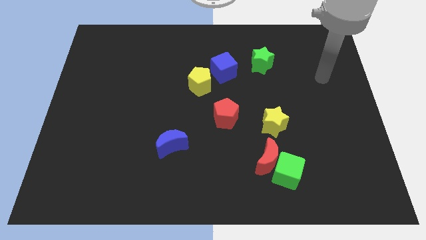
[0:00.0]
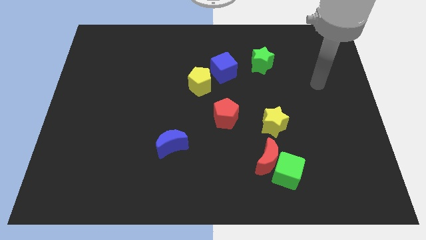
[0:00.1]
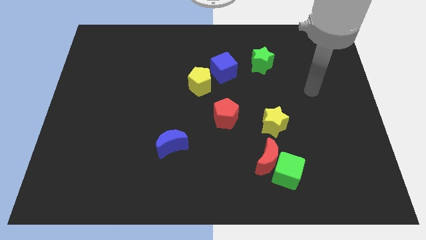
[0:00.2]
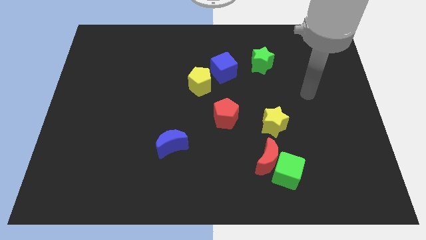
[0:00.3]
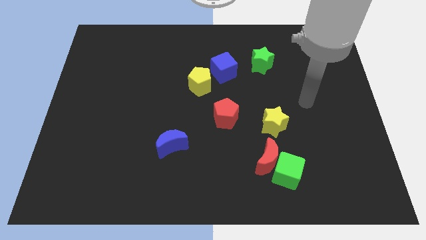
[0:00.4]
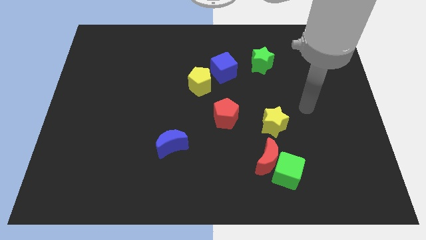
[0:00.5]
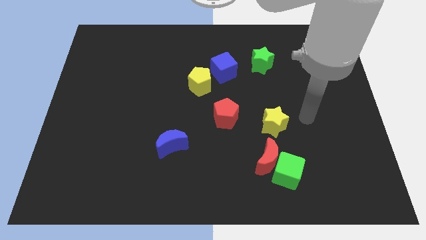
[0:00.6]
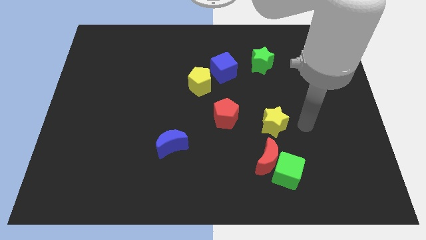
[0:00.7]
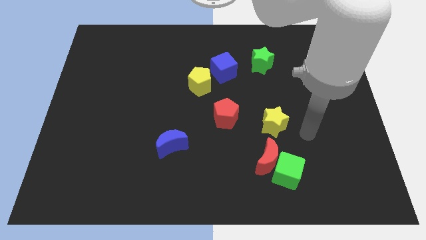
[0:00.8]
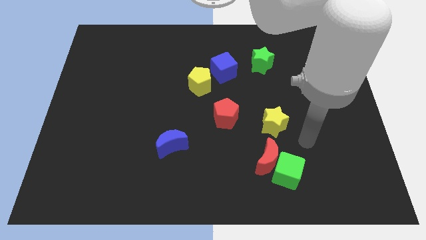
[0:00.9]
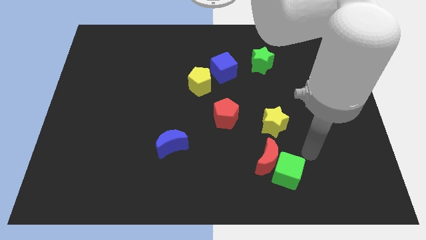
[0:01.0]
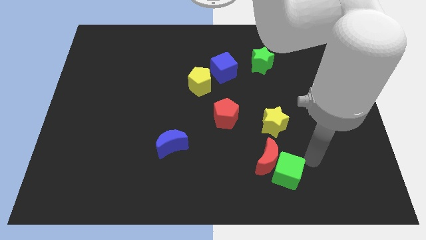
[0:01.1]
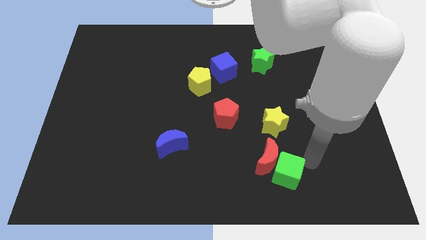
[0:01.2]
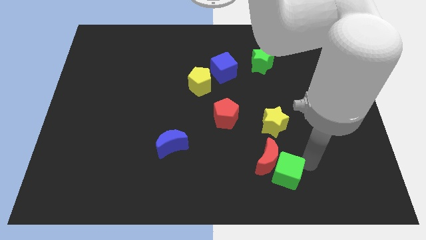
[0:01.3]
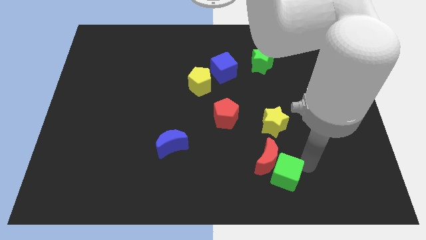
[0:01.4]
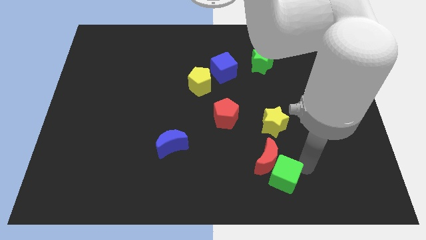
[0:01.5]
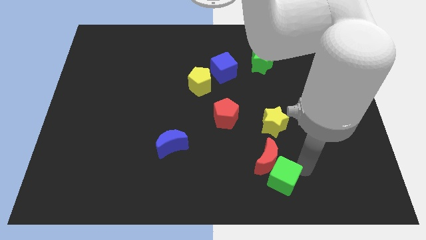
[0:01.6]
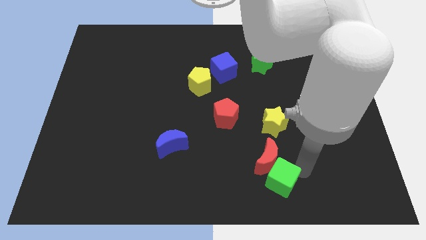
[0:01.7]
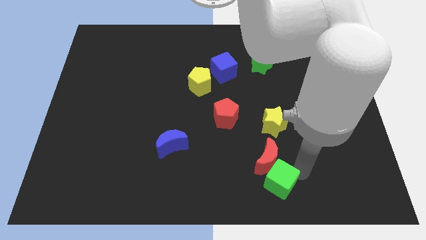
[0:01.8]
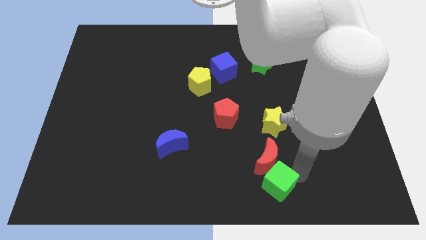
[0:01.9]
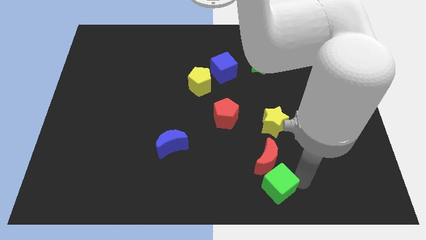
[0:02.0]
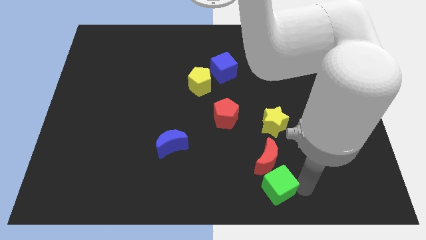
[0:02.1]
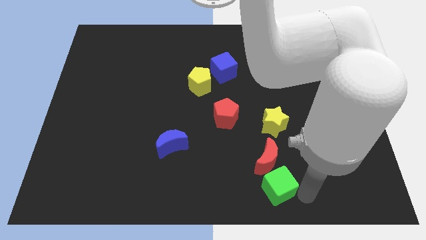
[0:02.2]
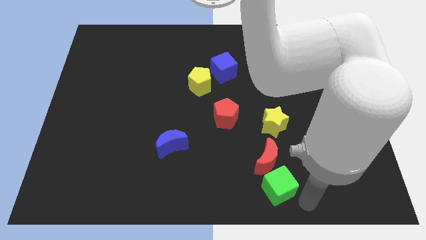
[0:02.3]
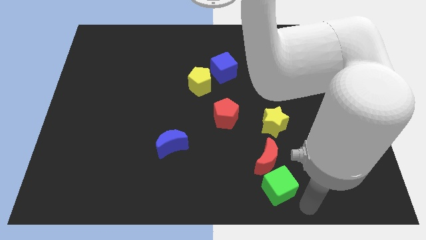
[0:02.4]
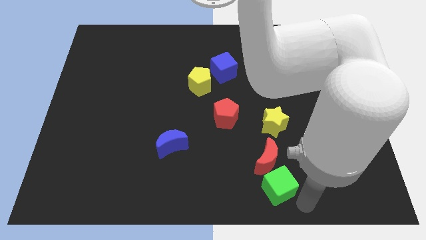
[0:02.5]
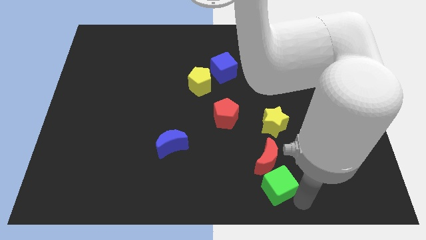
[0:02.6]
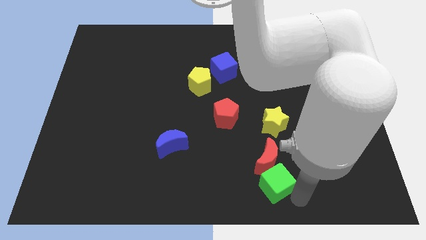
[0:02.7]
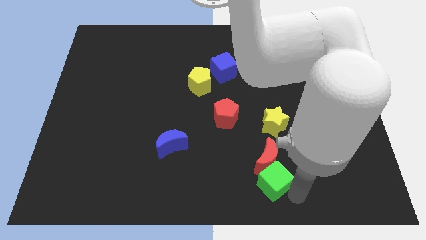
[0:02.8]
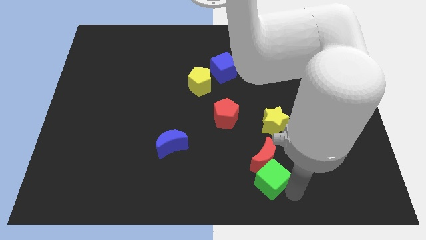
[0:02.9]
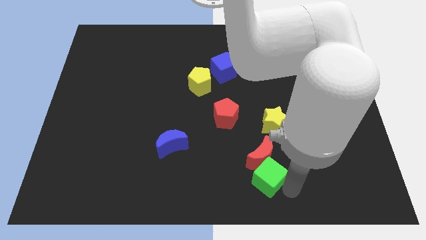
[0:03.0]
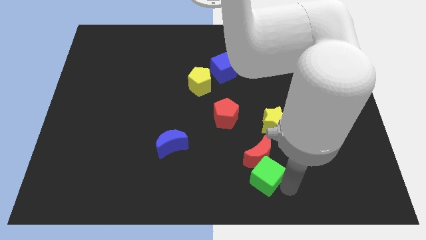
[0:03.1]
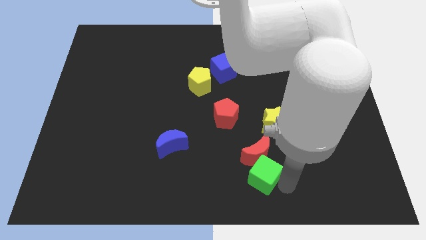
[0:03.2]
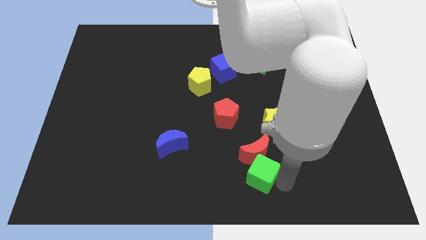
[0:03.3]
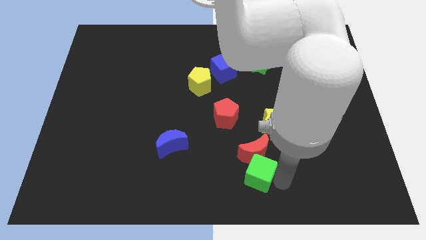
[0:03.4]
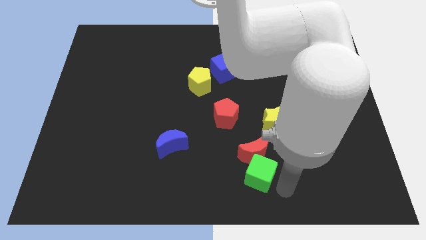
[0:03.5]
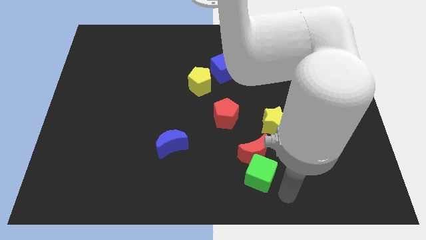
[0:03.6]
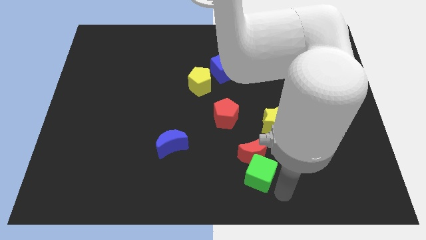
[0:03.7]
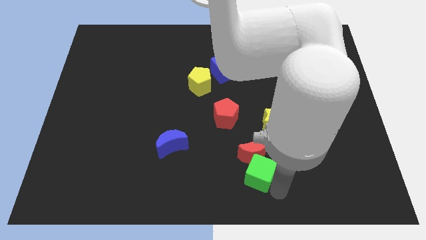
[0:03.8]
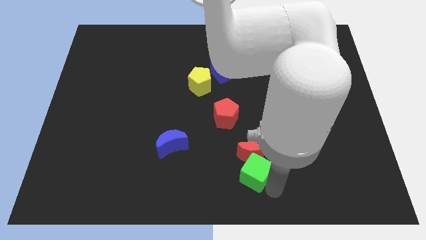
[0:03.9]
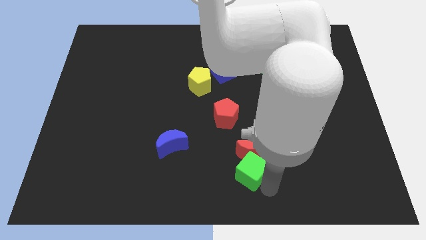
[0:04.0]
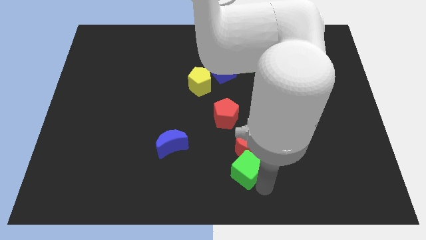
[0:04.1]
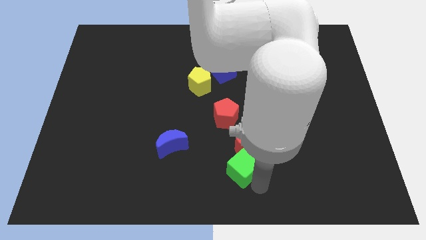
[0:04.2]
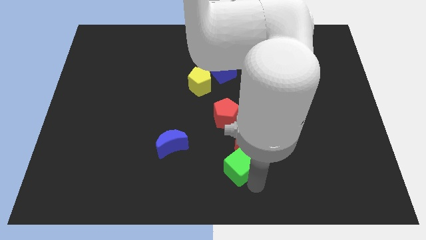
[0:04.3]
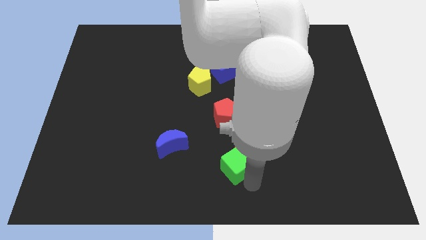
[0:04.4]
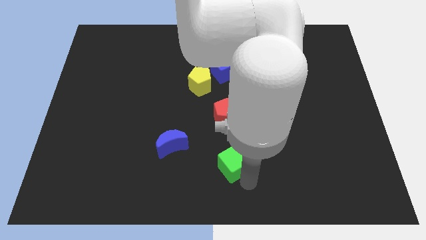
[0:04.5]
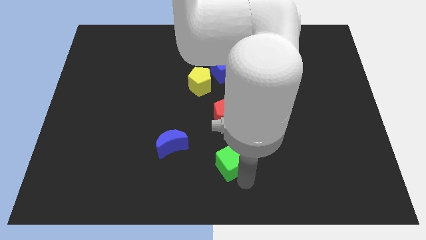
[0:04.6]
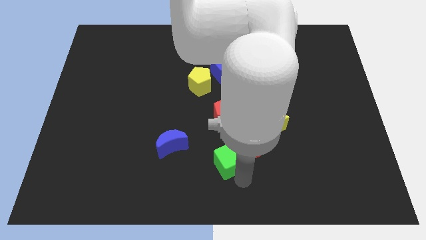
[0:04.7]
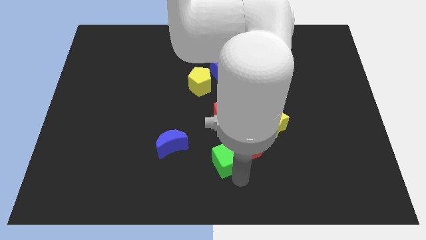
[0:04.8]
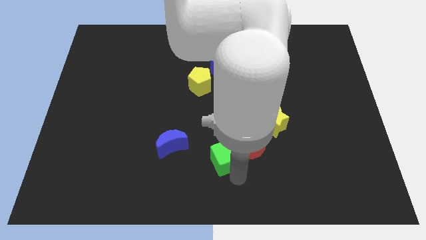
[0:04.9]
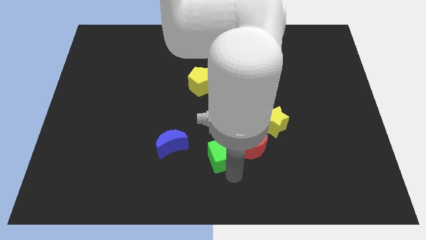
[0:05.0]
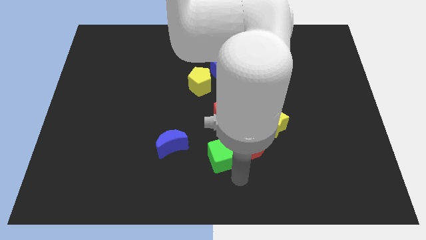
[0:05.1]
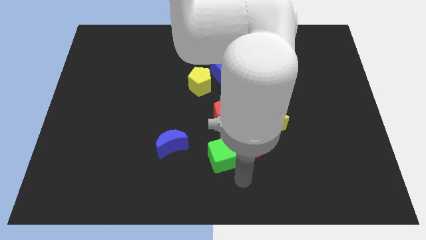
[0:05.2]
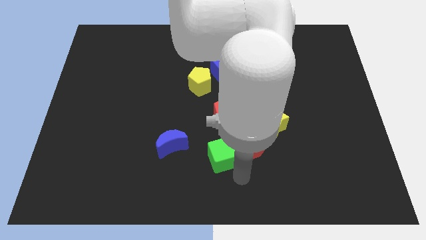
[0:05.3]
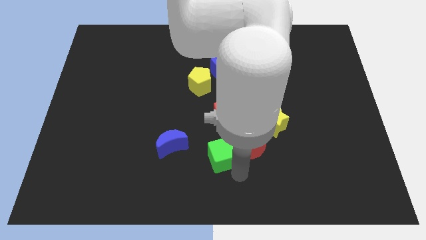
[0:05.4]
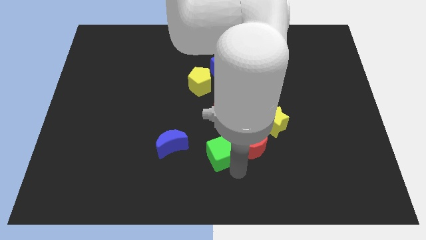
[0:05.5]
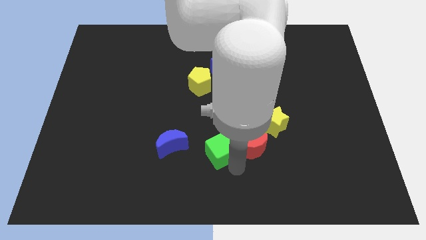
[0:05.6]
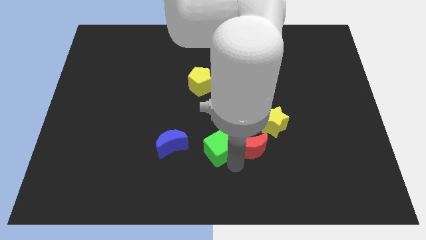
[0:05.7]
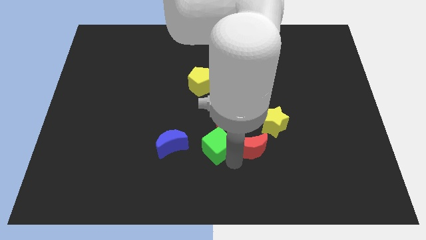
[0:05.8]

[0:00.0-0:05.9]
slide the green cube diagonally down and to the left of the red pentagon

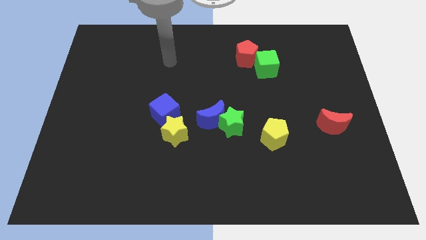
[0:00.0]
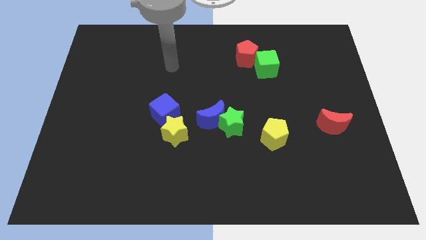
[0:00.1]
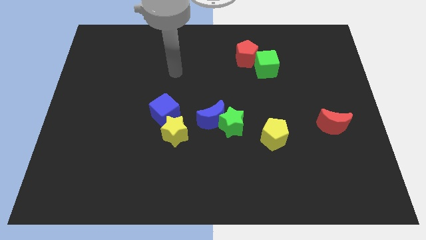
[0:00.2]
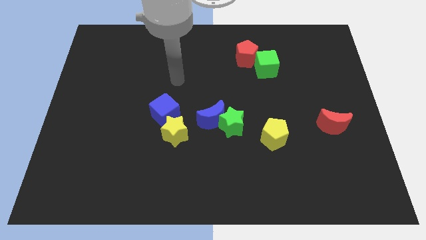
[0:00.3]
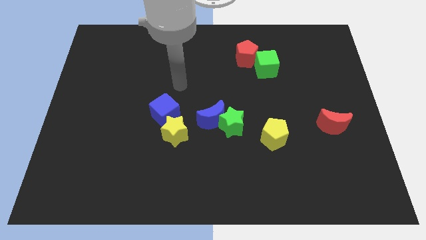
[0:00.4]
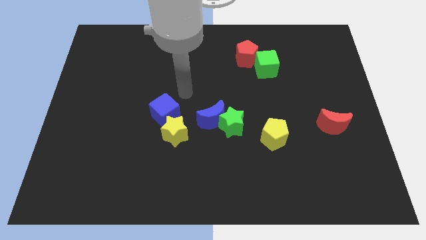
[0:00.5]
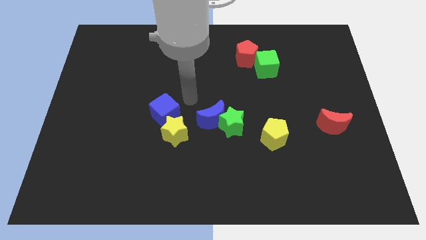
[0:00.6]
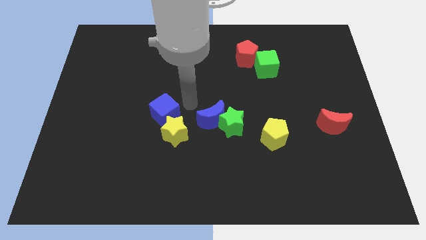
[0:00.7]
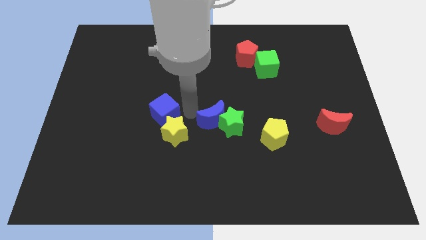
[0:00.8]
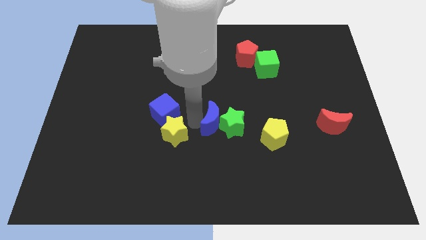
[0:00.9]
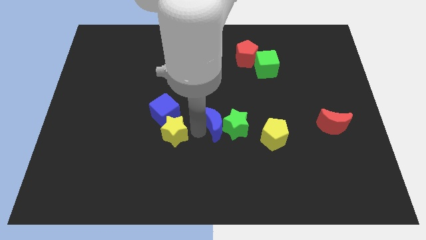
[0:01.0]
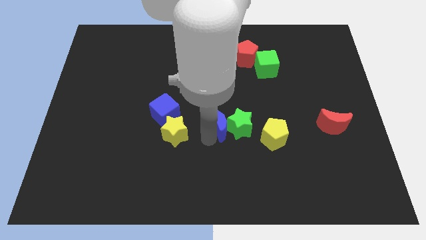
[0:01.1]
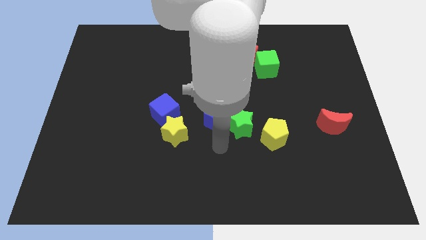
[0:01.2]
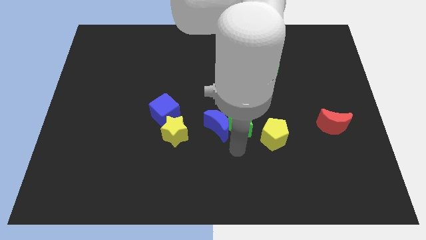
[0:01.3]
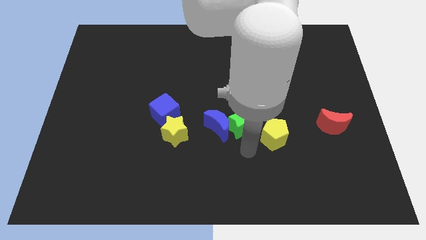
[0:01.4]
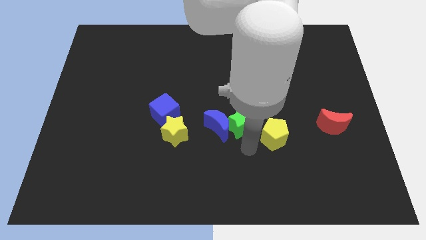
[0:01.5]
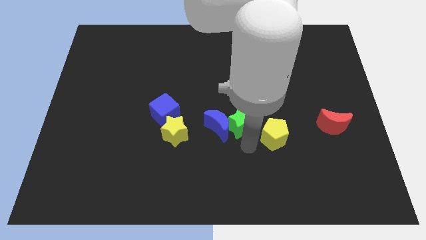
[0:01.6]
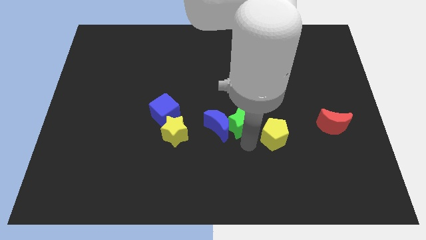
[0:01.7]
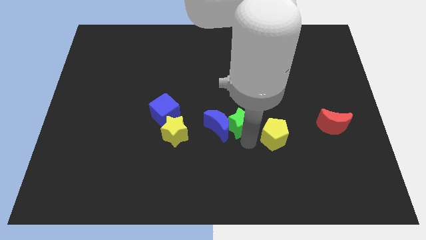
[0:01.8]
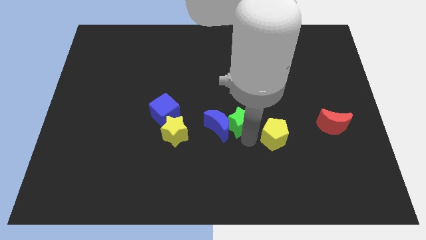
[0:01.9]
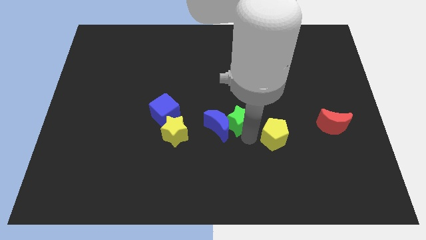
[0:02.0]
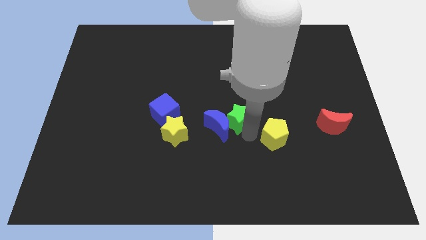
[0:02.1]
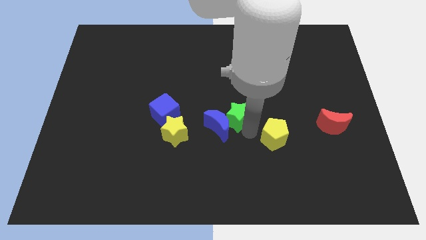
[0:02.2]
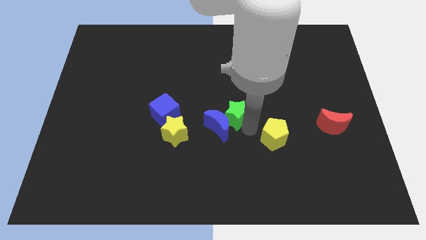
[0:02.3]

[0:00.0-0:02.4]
push the green star to the top side of the blue moon
